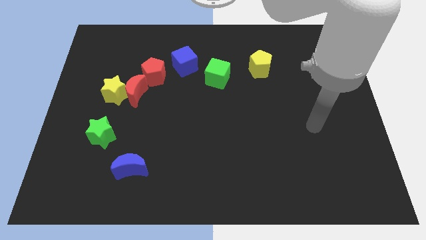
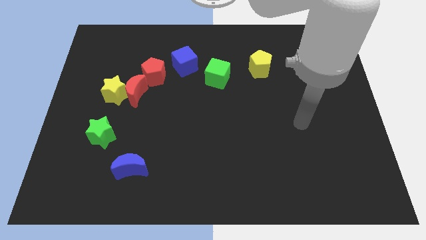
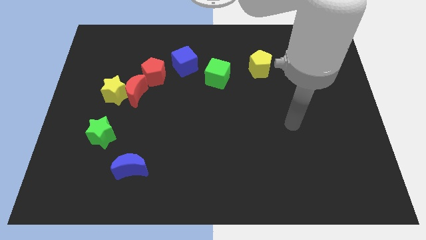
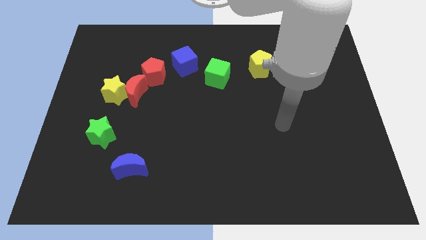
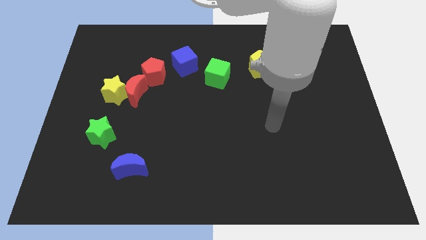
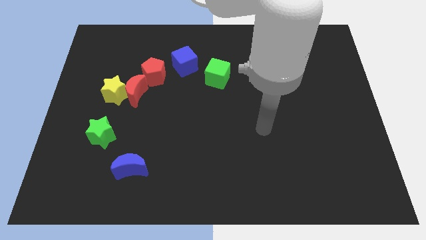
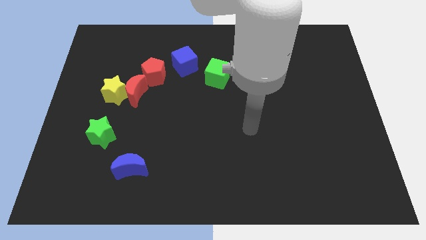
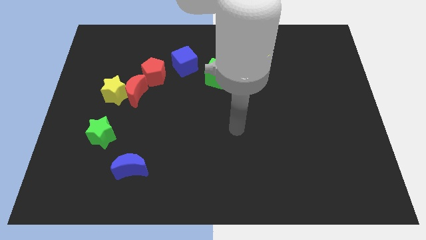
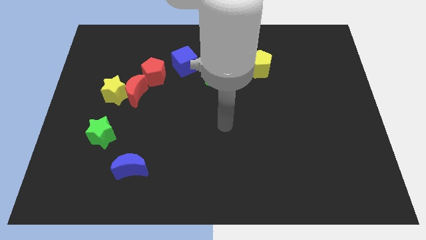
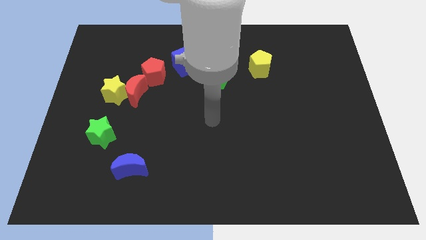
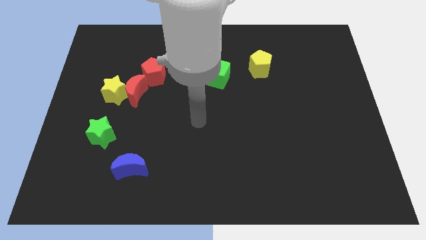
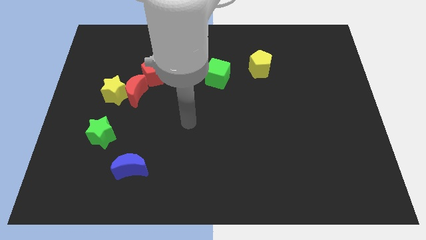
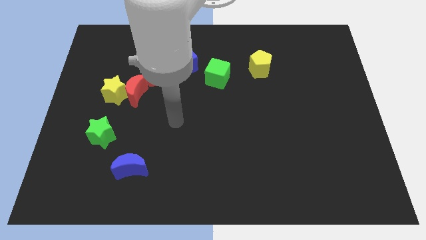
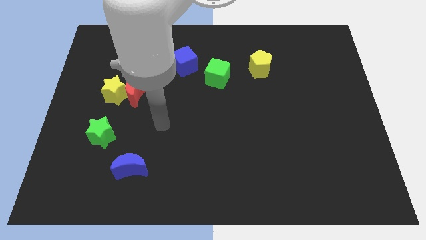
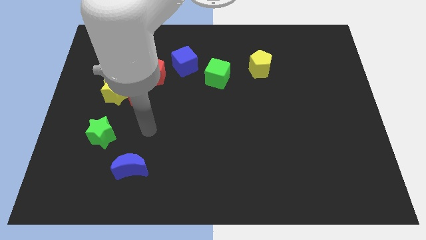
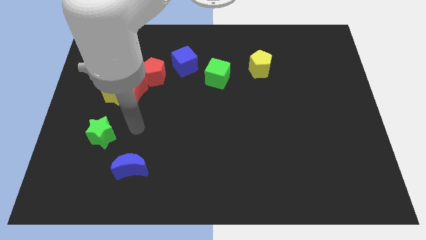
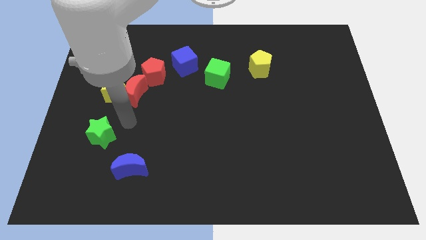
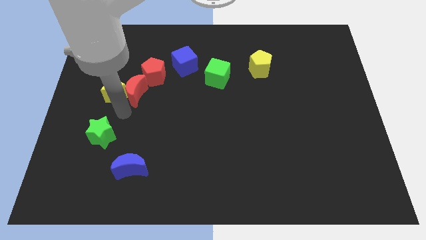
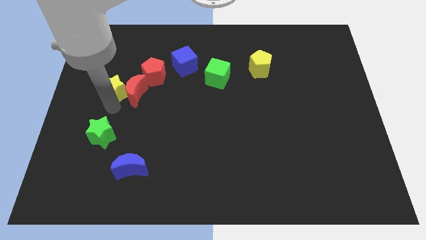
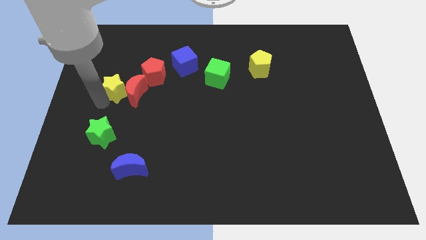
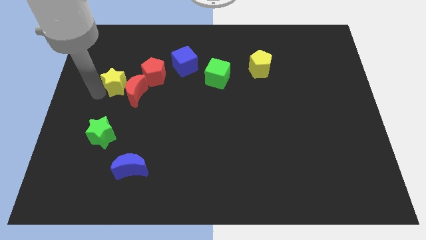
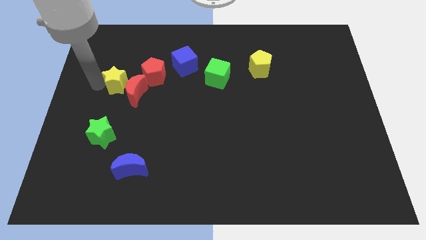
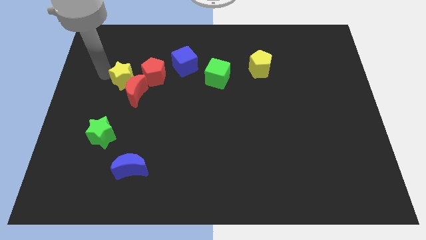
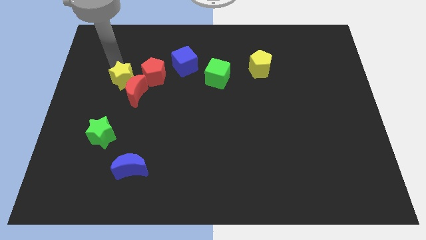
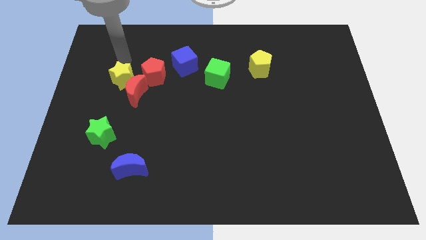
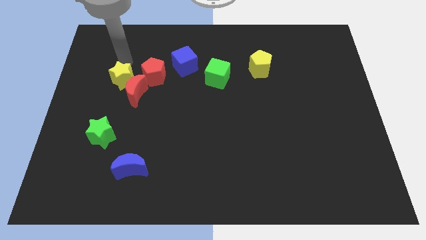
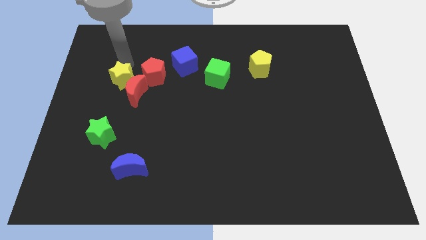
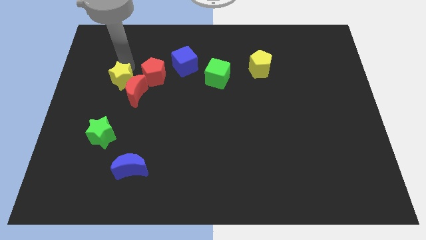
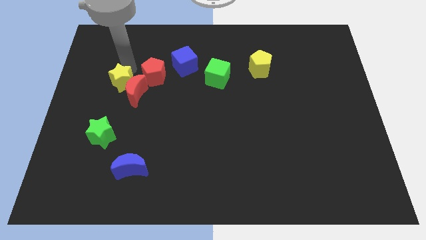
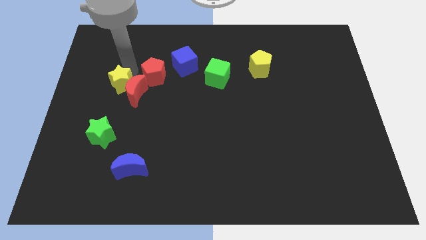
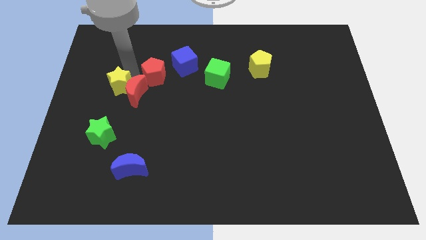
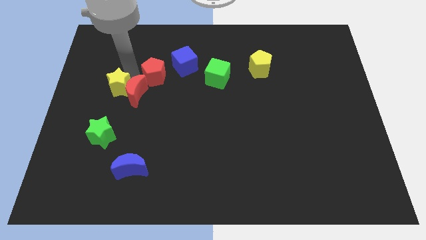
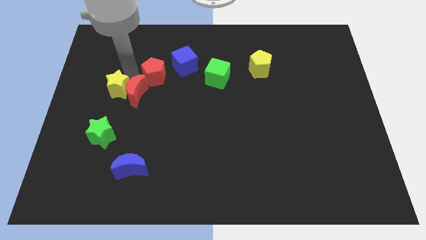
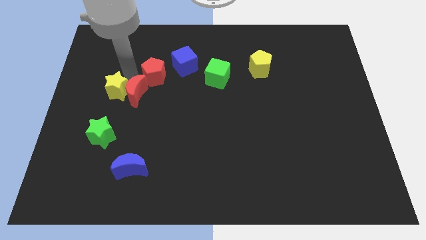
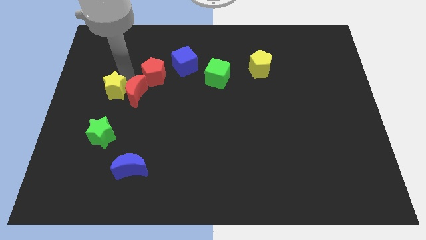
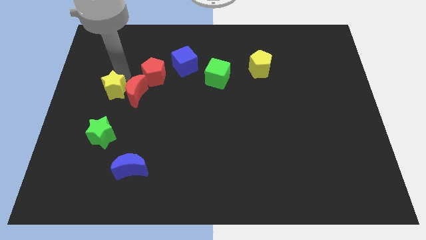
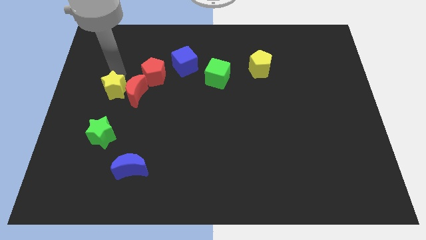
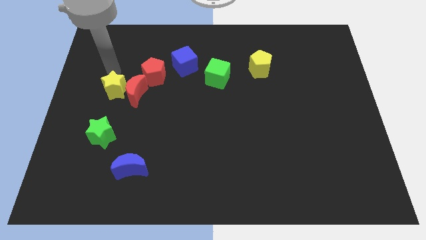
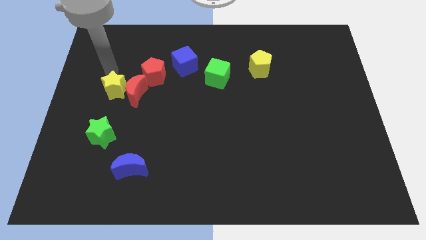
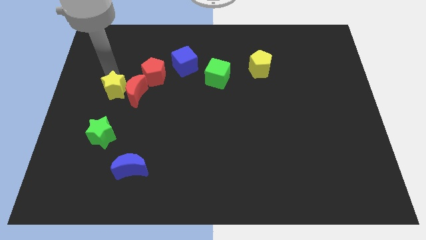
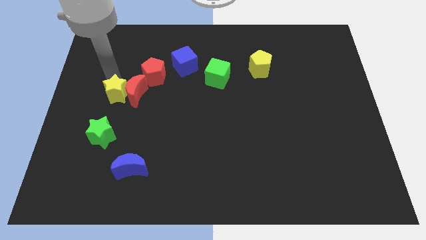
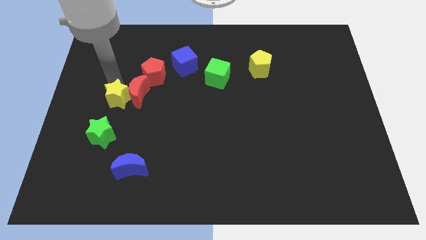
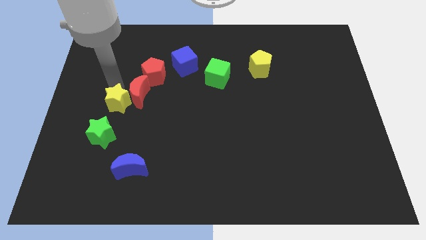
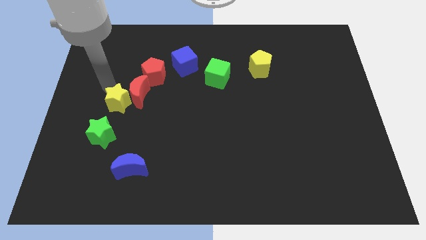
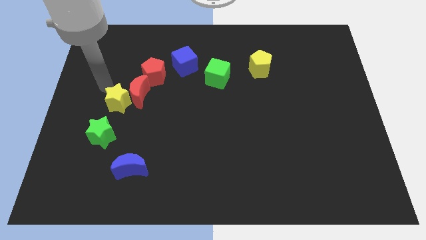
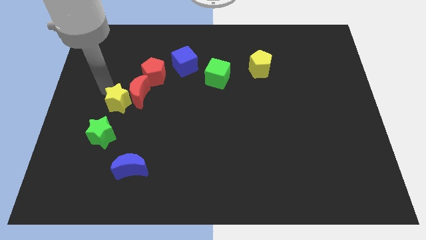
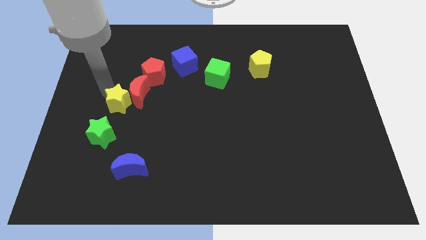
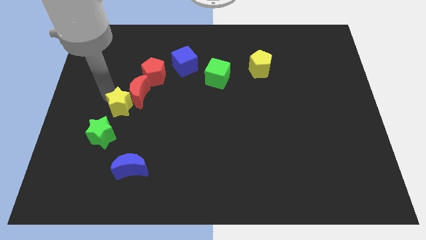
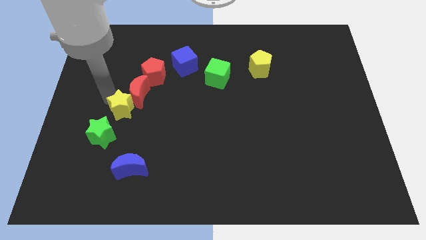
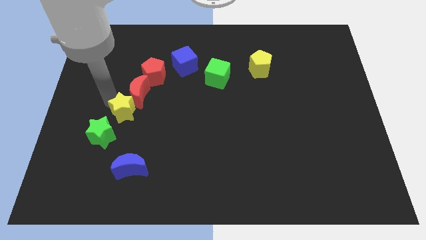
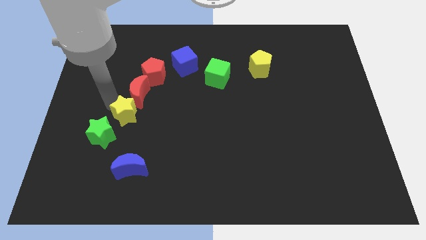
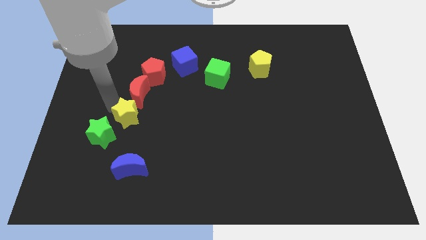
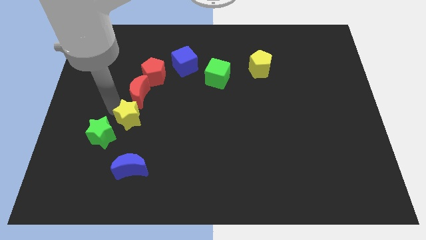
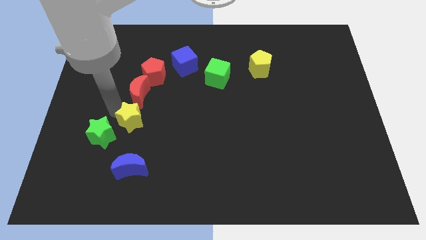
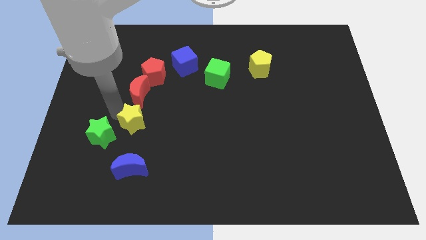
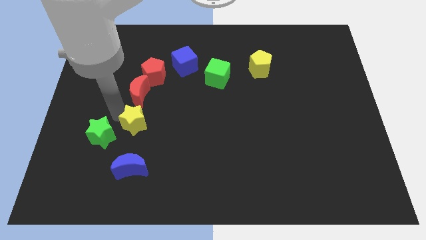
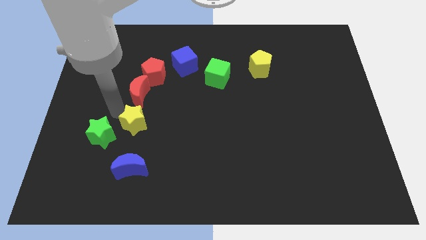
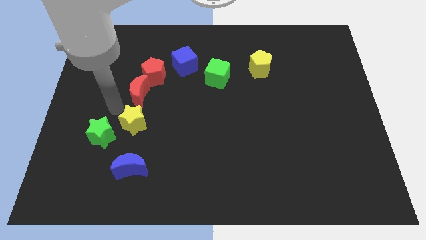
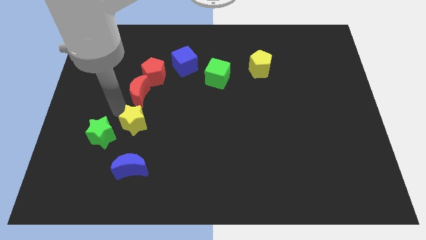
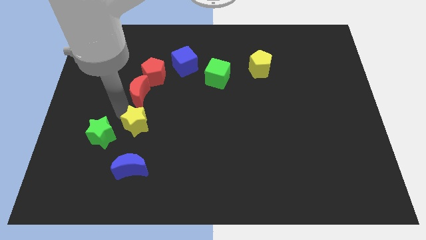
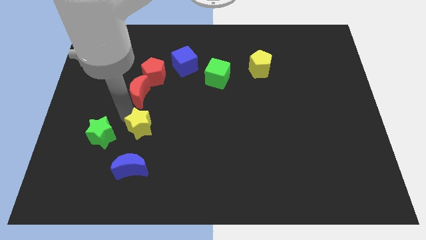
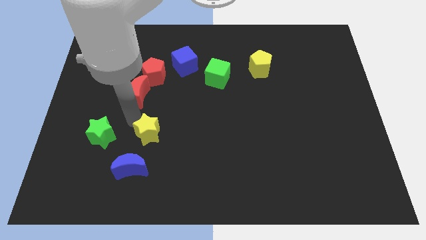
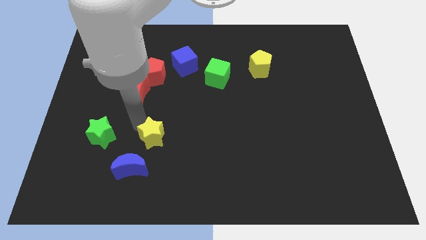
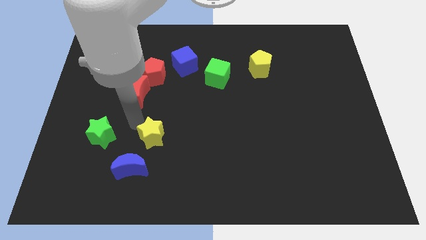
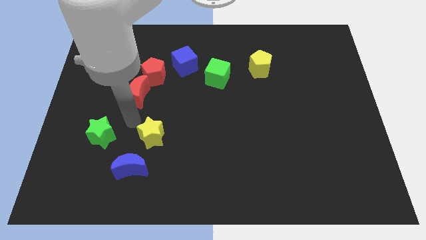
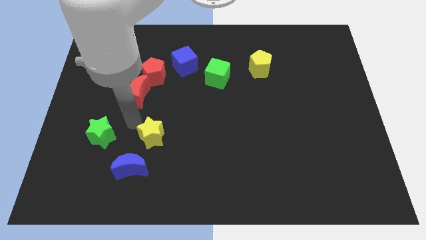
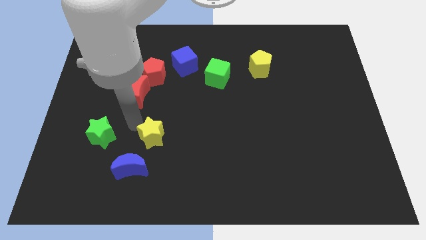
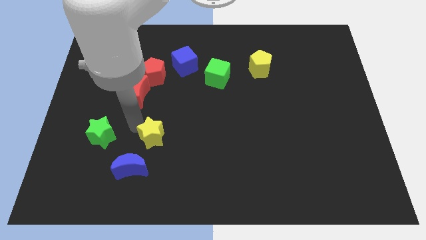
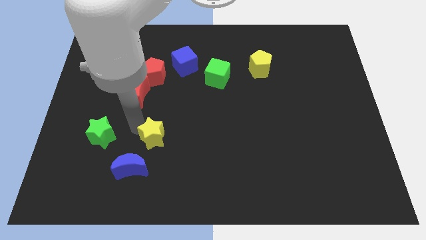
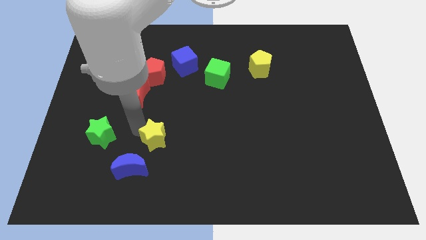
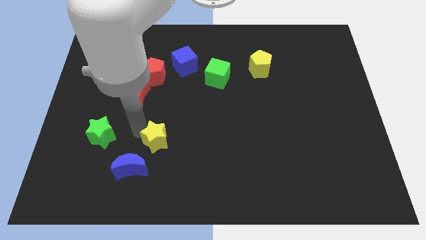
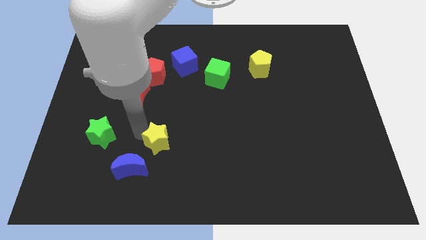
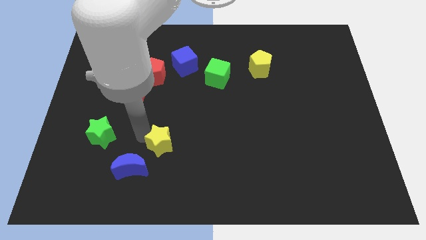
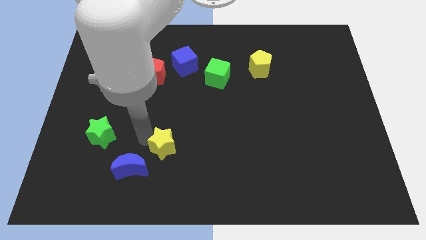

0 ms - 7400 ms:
move the yellow star downwards and then right

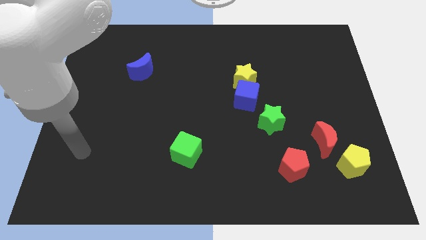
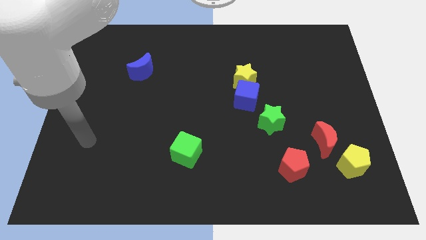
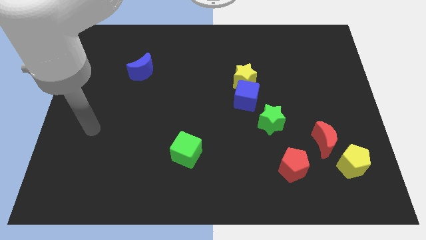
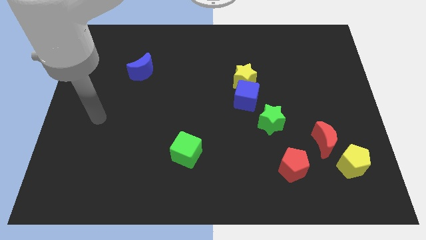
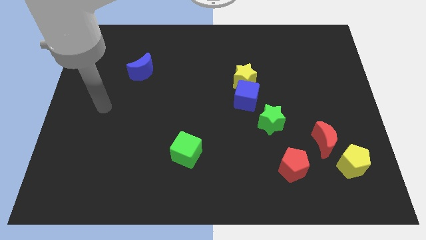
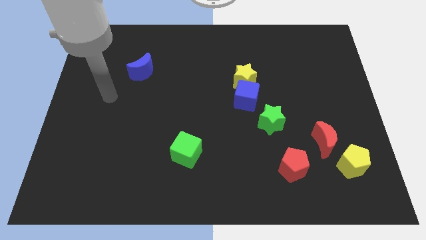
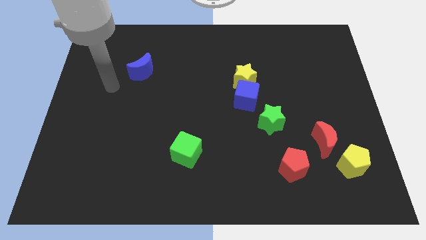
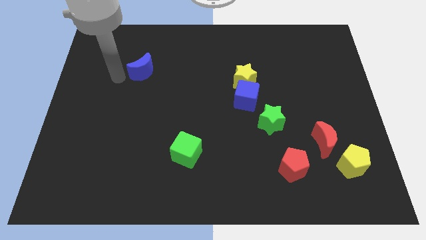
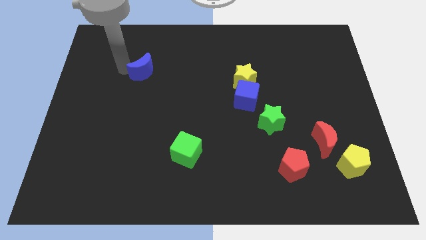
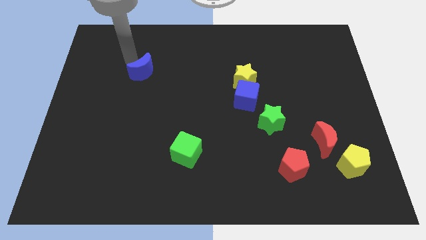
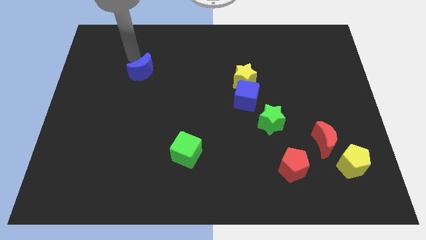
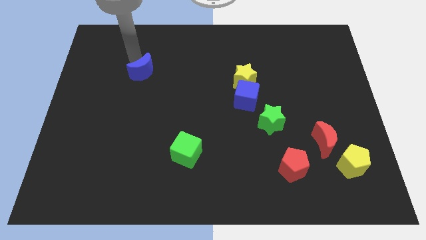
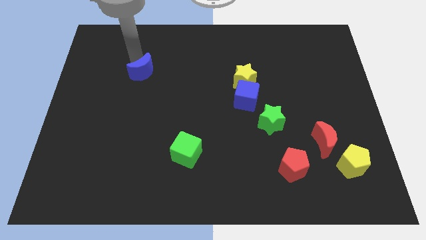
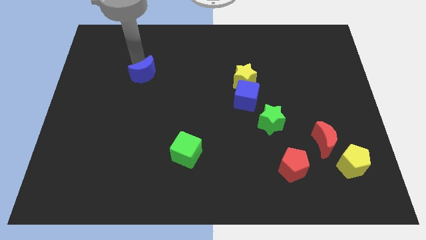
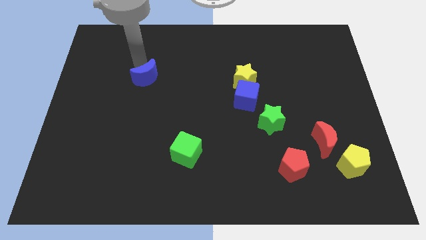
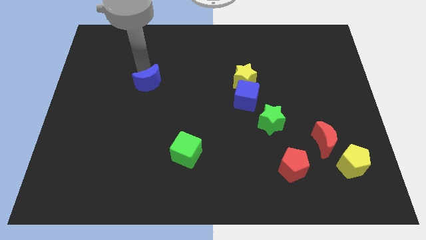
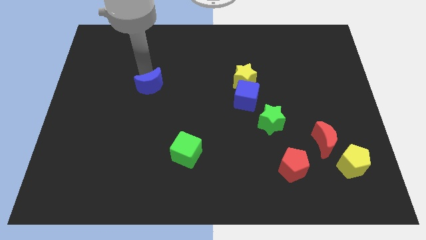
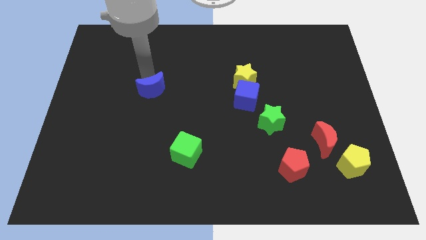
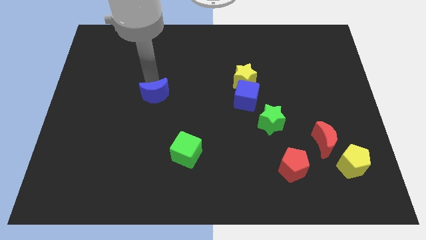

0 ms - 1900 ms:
move the blue moon a bit downwards
